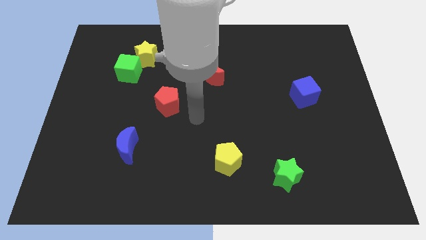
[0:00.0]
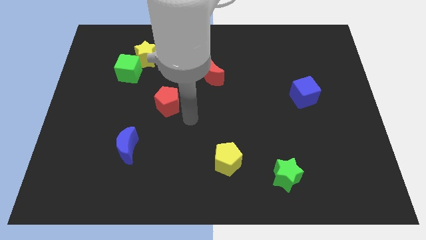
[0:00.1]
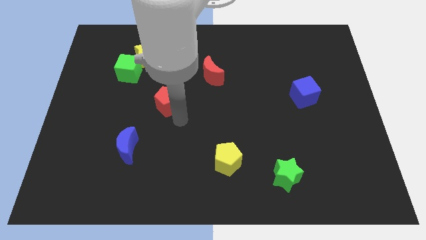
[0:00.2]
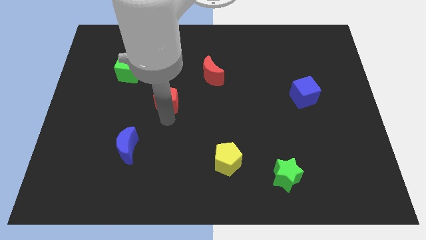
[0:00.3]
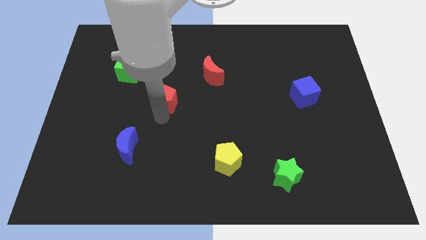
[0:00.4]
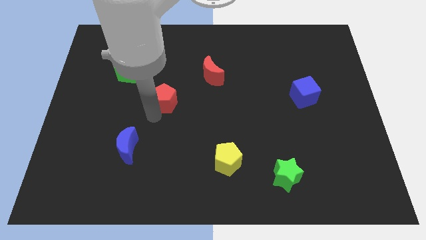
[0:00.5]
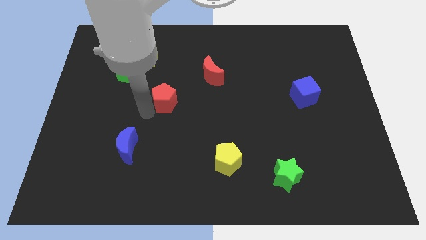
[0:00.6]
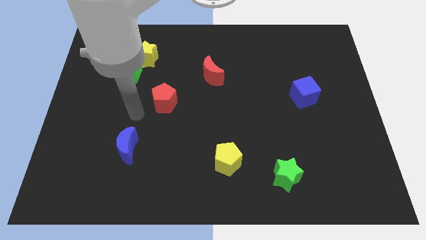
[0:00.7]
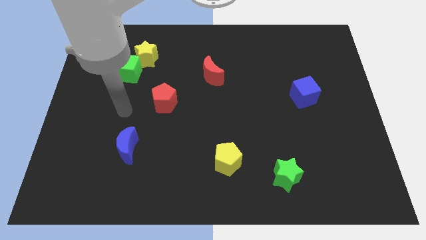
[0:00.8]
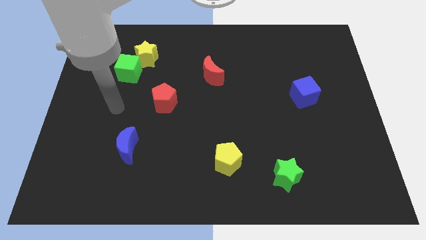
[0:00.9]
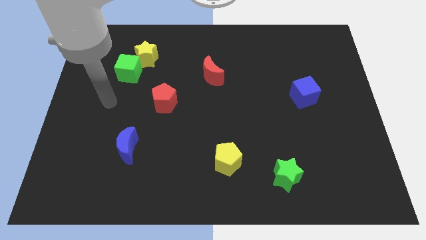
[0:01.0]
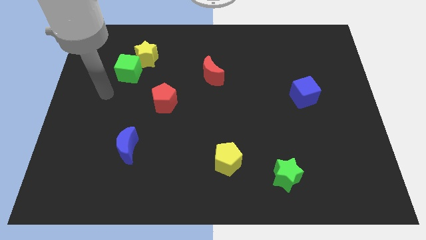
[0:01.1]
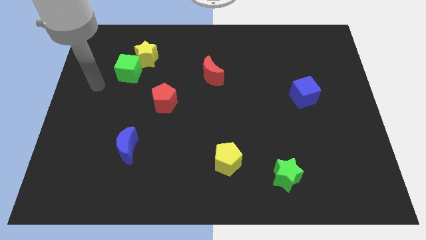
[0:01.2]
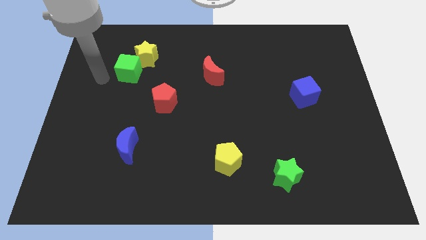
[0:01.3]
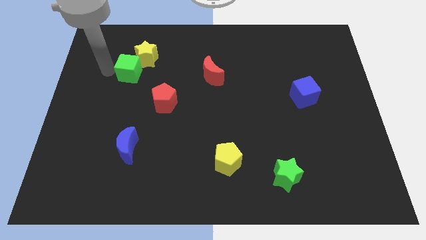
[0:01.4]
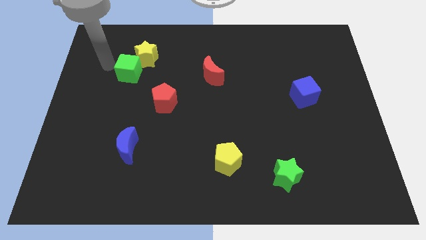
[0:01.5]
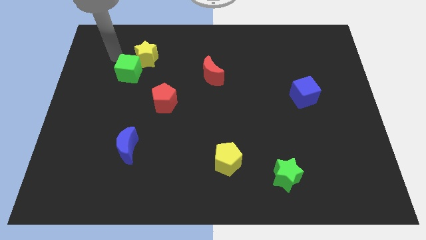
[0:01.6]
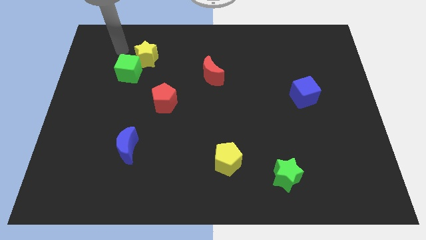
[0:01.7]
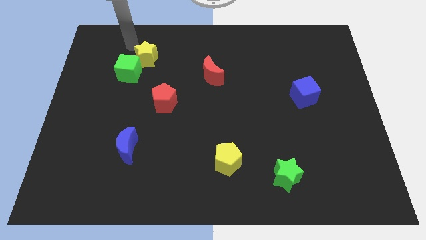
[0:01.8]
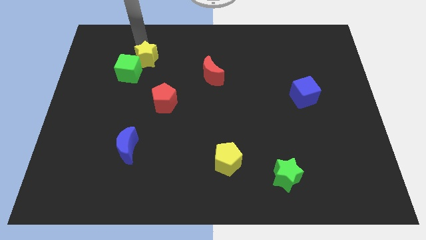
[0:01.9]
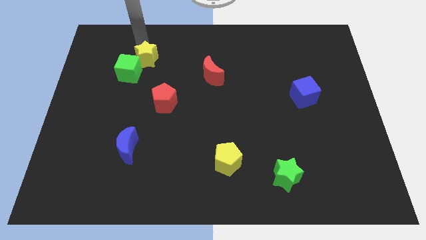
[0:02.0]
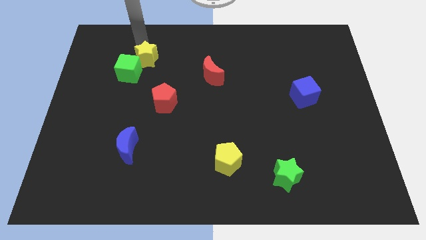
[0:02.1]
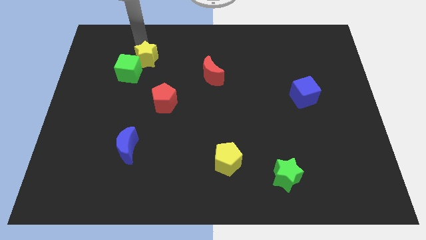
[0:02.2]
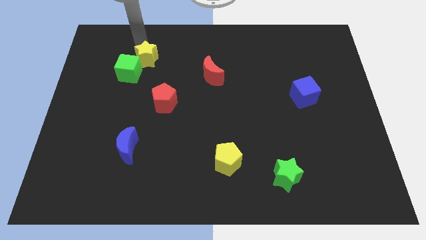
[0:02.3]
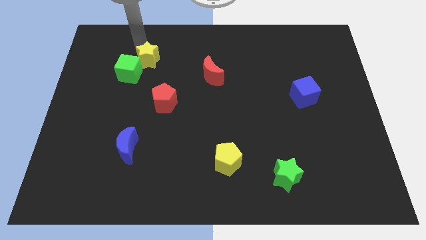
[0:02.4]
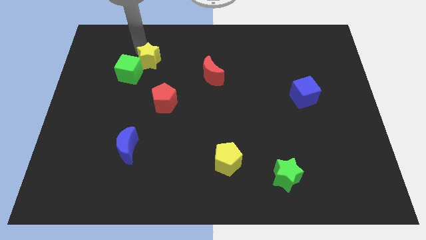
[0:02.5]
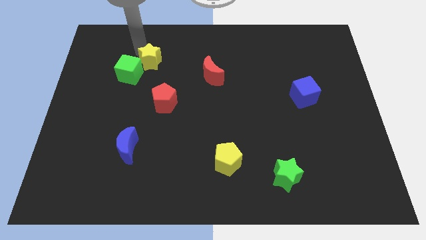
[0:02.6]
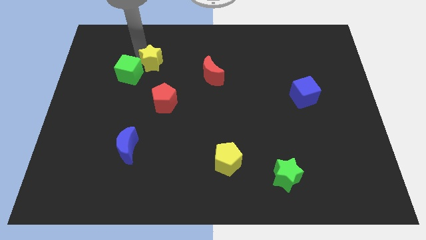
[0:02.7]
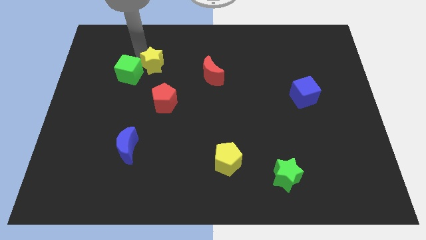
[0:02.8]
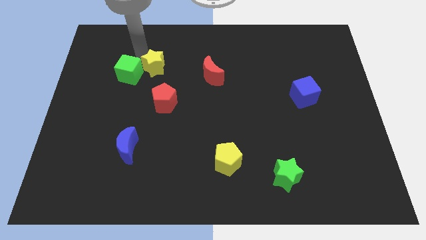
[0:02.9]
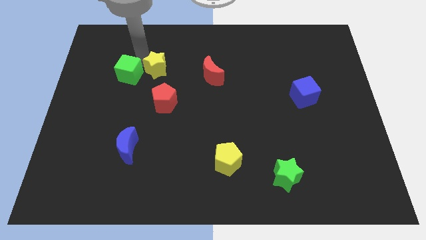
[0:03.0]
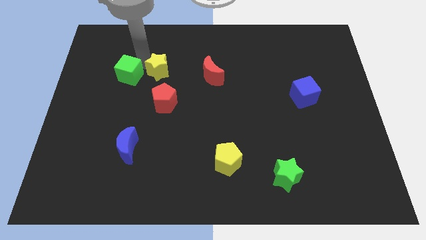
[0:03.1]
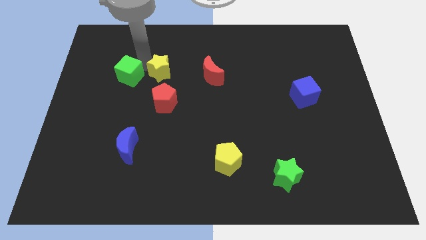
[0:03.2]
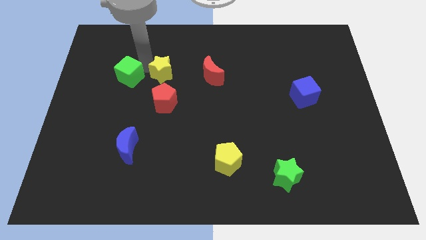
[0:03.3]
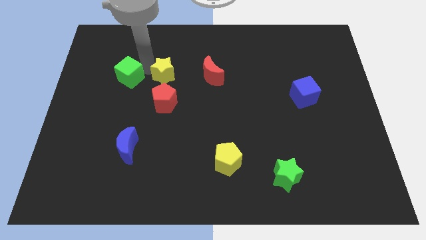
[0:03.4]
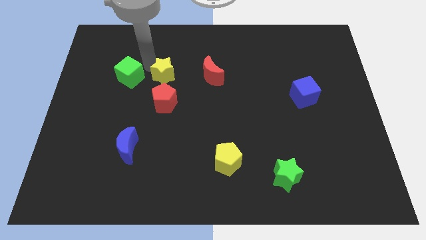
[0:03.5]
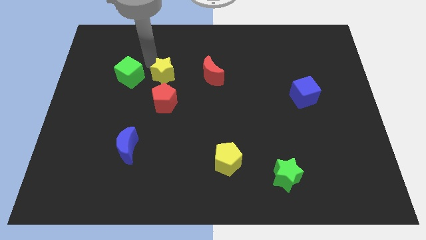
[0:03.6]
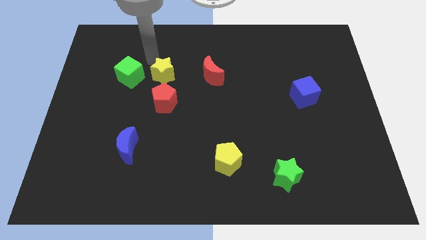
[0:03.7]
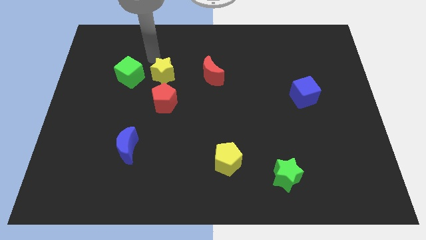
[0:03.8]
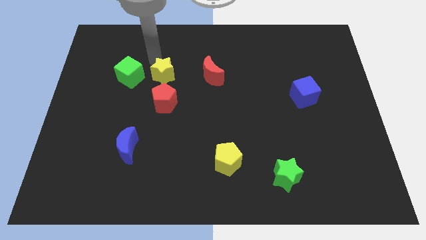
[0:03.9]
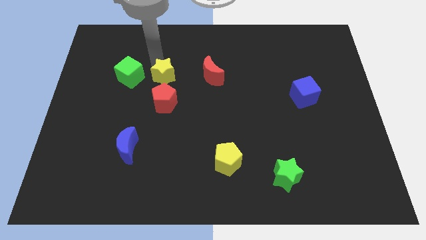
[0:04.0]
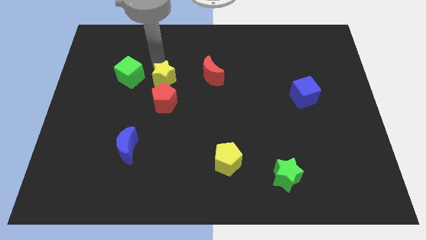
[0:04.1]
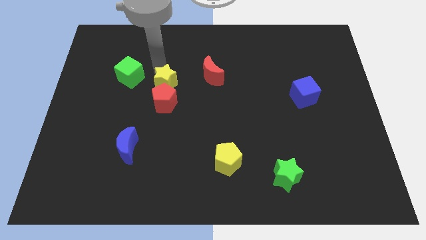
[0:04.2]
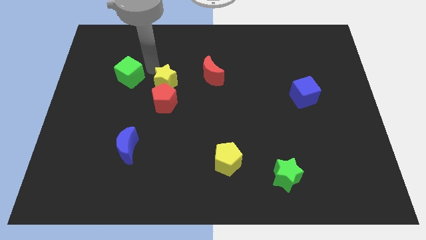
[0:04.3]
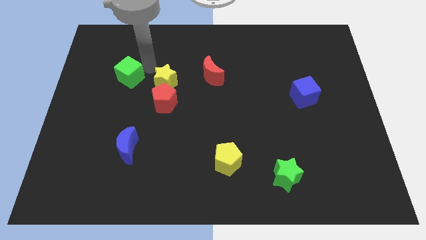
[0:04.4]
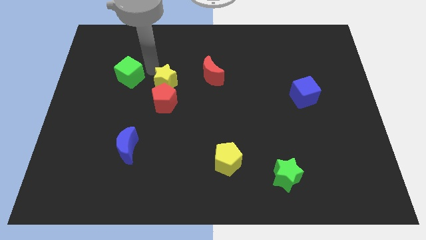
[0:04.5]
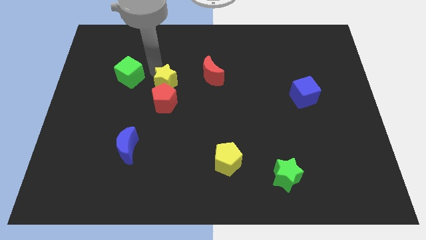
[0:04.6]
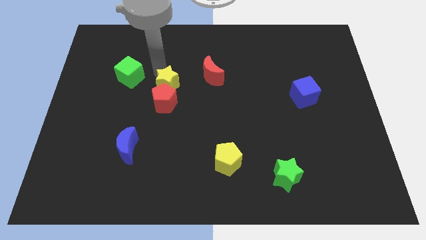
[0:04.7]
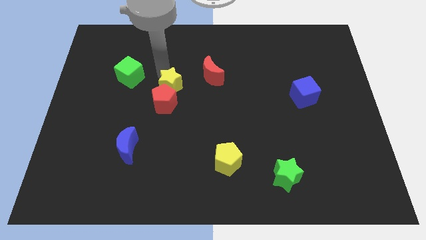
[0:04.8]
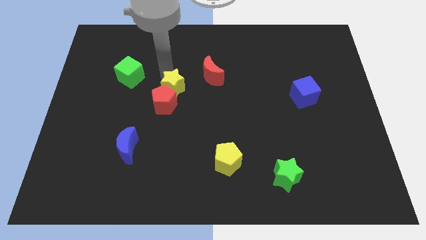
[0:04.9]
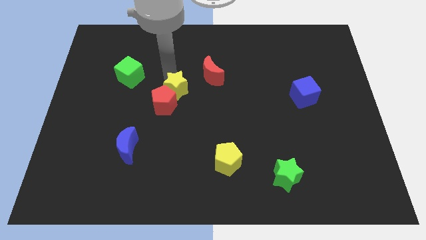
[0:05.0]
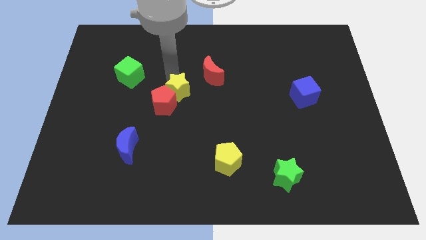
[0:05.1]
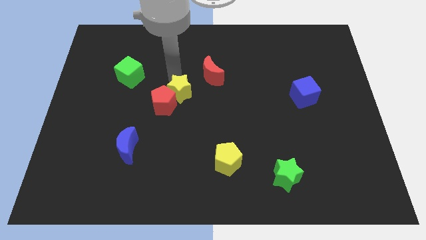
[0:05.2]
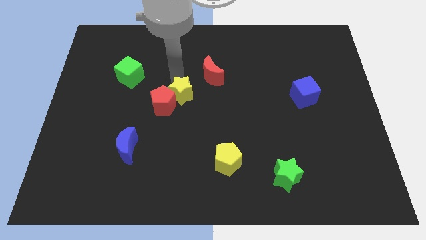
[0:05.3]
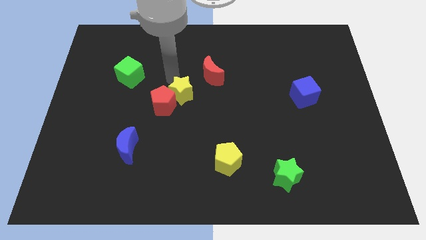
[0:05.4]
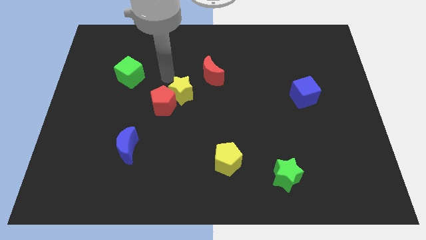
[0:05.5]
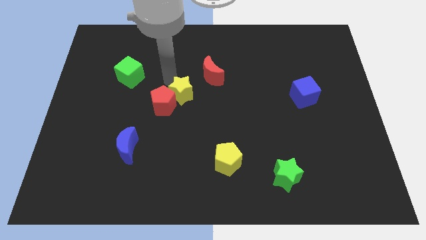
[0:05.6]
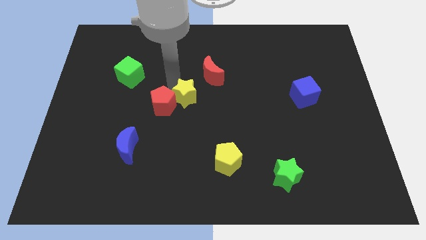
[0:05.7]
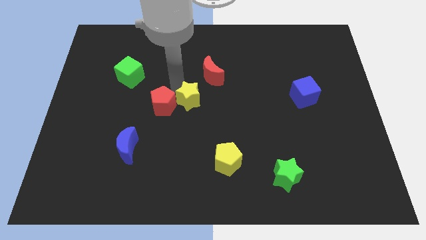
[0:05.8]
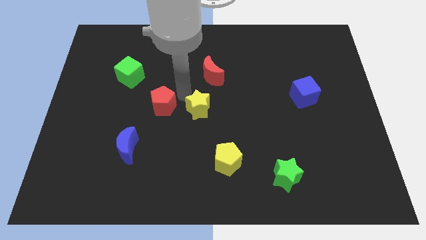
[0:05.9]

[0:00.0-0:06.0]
push the yellow star diagonally down and to the right

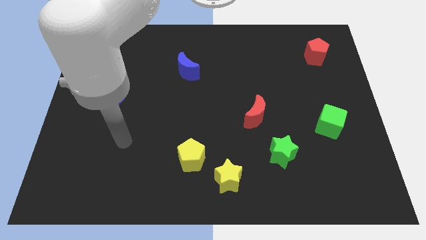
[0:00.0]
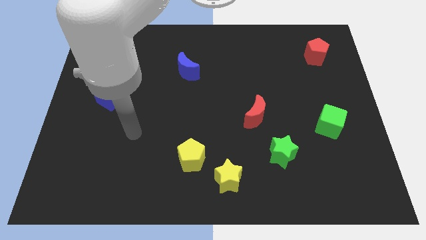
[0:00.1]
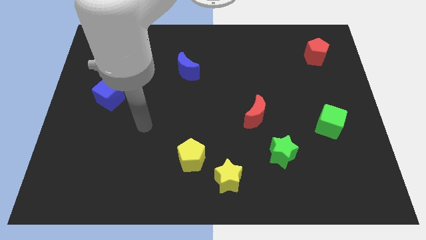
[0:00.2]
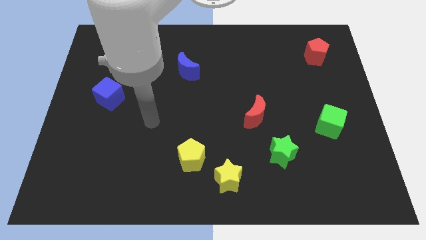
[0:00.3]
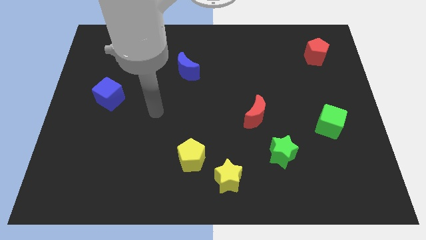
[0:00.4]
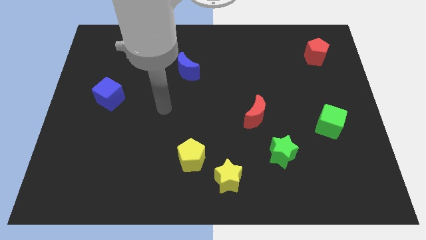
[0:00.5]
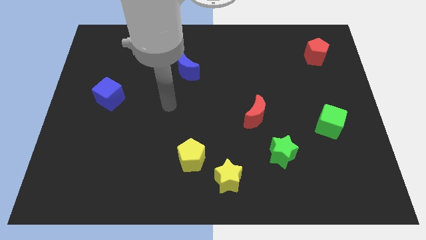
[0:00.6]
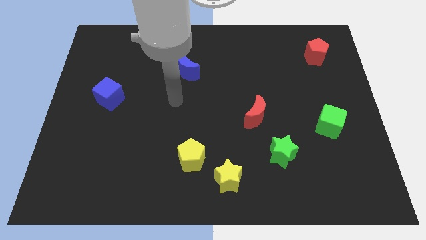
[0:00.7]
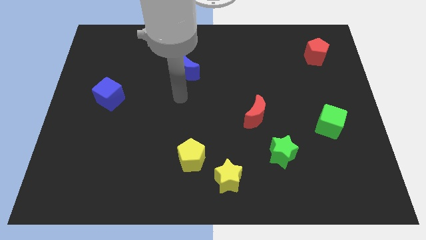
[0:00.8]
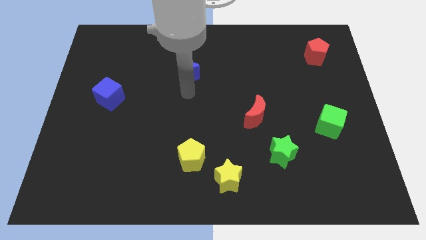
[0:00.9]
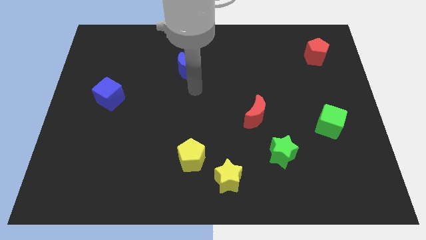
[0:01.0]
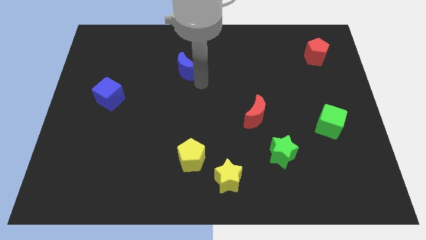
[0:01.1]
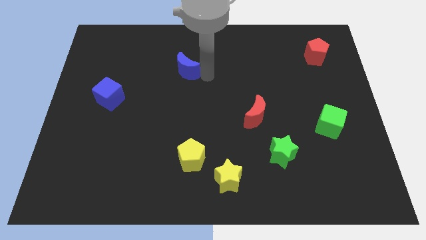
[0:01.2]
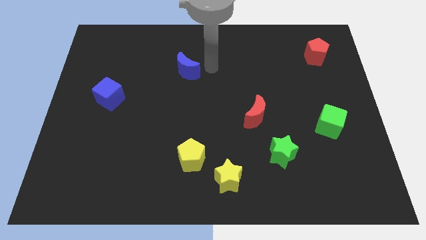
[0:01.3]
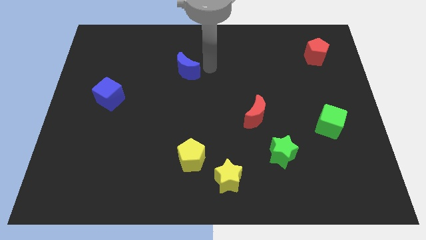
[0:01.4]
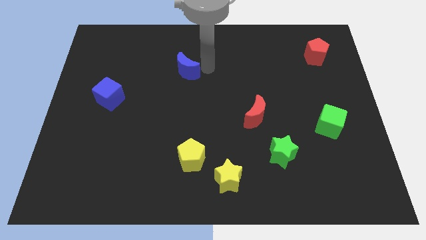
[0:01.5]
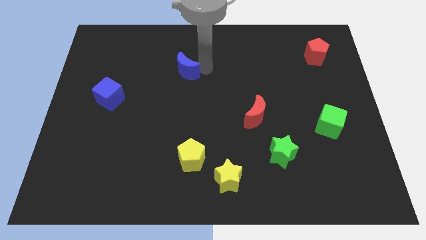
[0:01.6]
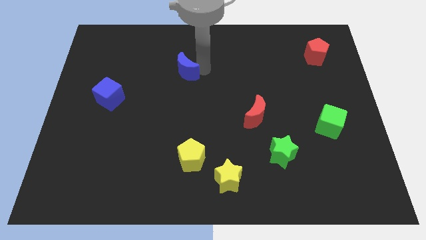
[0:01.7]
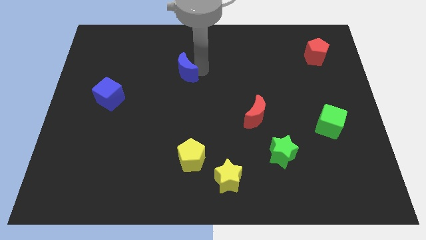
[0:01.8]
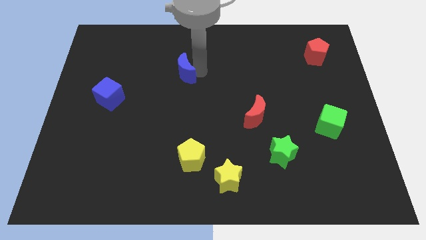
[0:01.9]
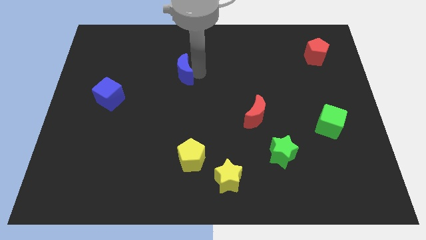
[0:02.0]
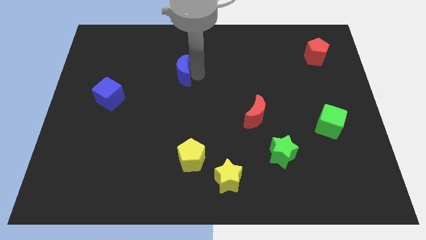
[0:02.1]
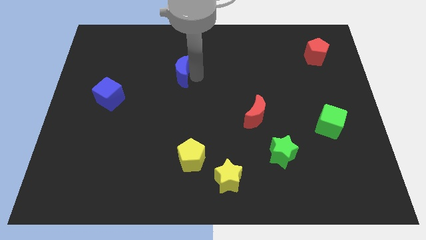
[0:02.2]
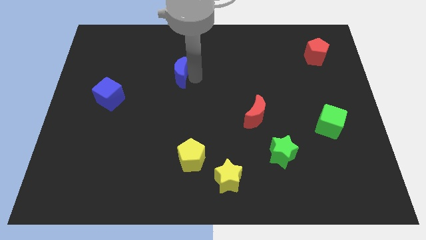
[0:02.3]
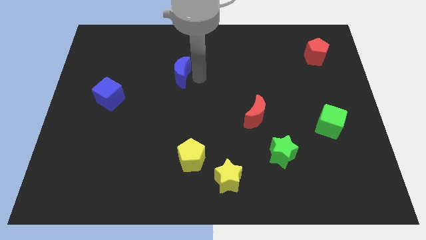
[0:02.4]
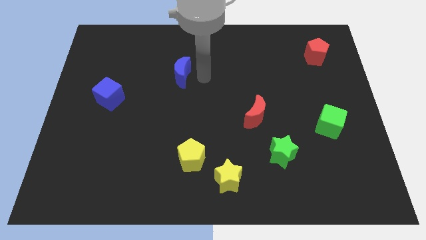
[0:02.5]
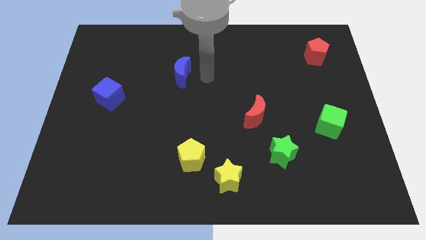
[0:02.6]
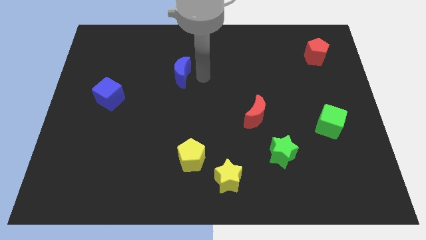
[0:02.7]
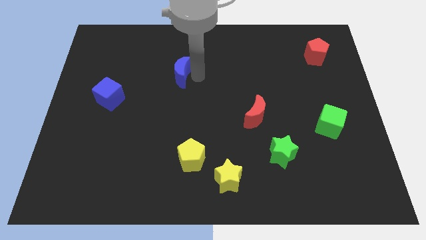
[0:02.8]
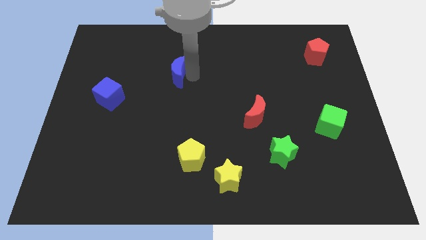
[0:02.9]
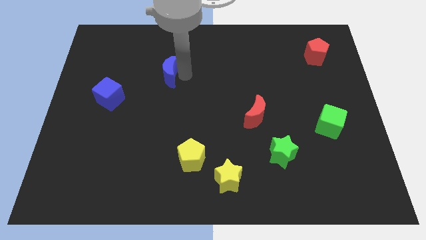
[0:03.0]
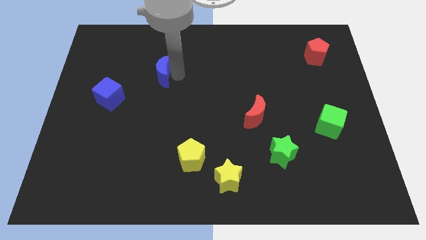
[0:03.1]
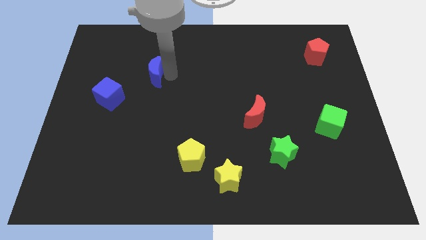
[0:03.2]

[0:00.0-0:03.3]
slightly slide the blue moon left
